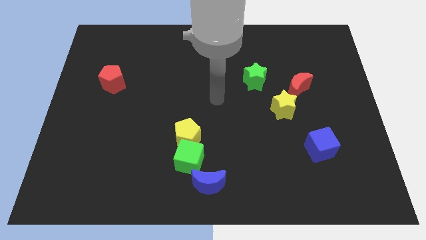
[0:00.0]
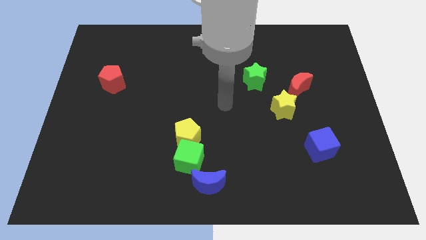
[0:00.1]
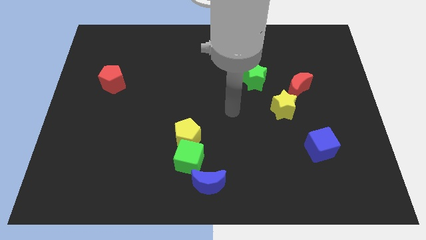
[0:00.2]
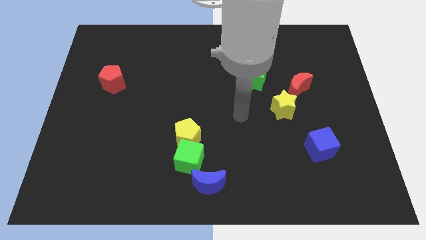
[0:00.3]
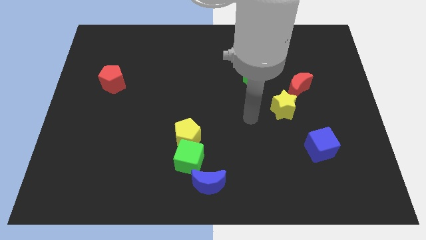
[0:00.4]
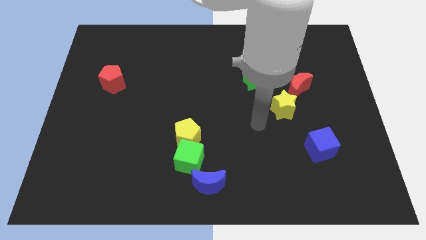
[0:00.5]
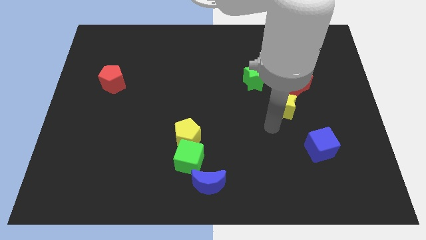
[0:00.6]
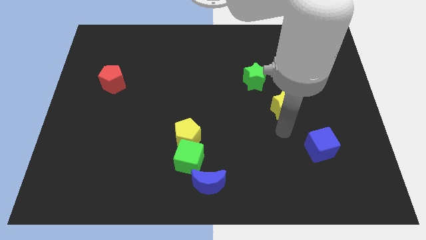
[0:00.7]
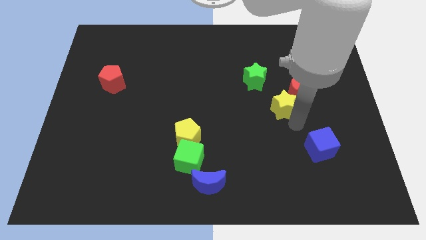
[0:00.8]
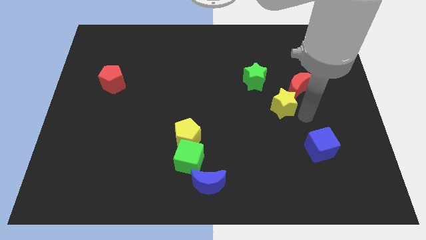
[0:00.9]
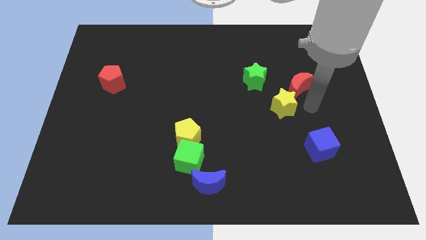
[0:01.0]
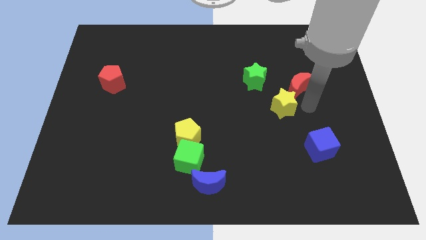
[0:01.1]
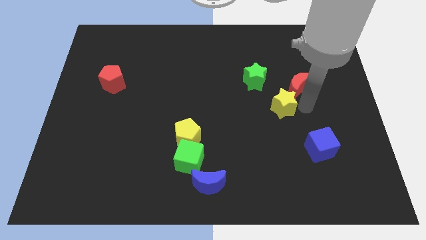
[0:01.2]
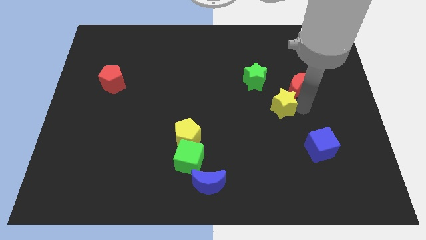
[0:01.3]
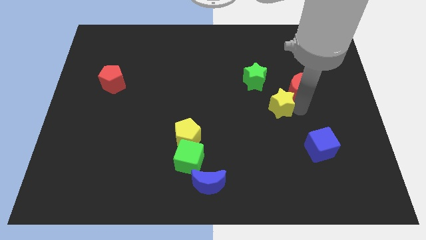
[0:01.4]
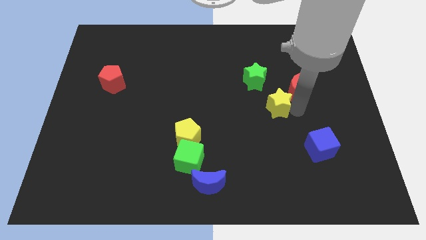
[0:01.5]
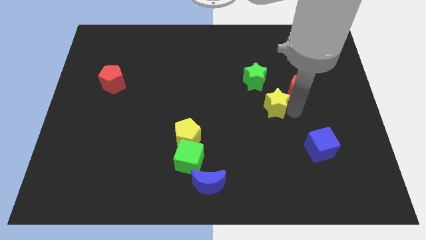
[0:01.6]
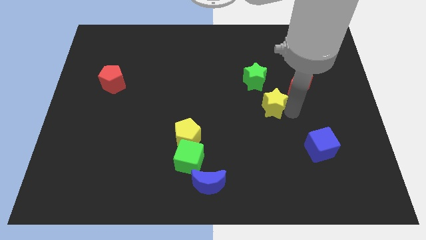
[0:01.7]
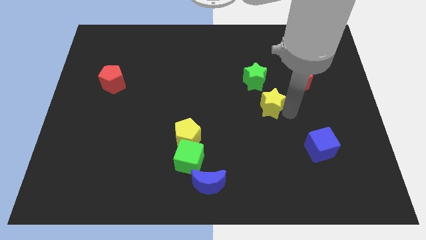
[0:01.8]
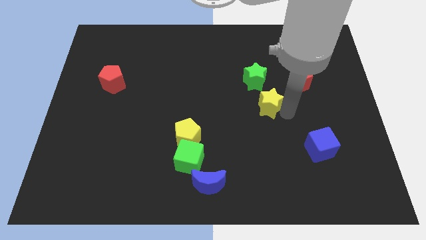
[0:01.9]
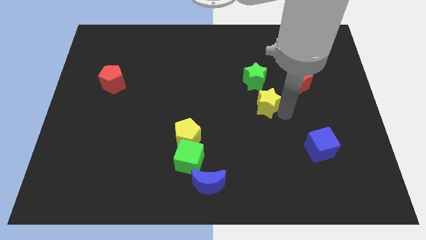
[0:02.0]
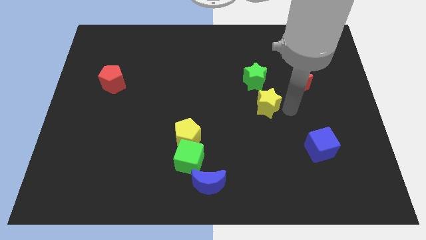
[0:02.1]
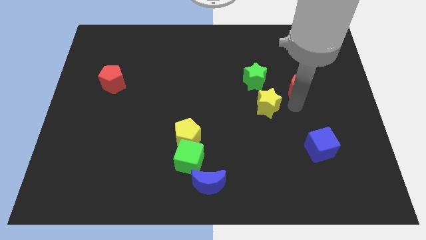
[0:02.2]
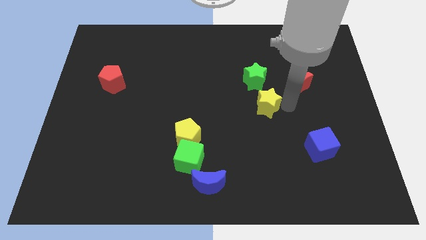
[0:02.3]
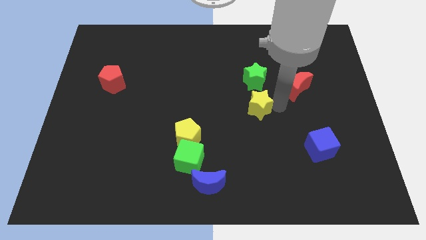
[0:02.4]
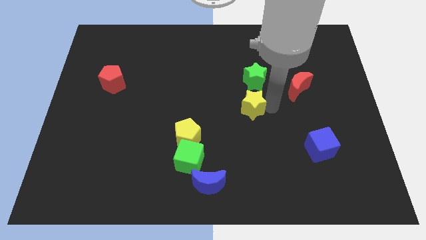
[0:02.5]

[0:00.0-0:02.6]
move the yellow star to the left a bit

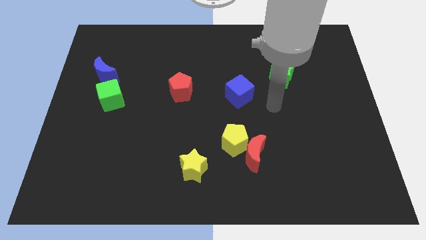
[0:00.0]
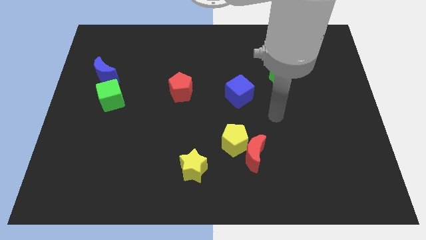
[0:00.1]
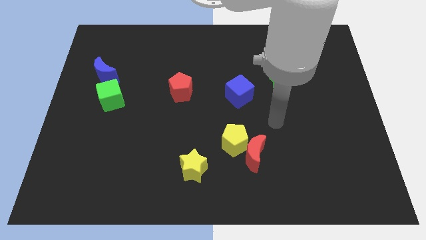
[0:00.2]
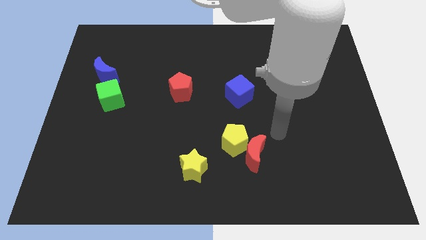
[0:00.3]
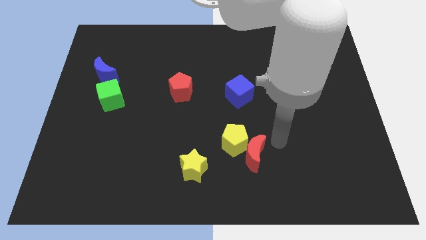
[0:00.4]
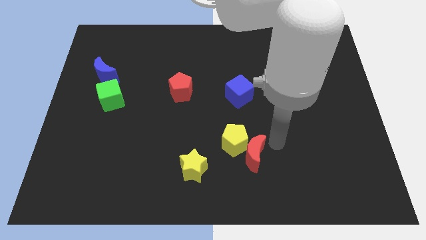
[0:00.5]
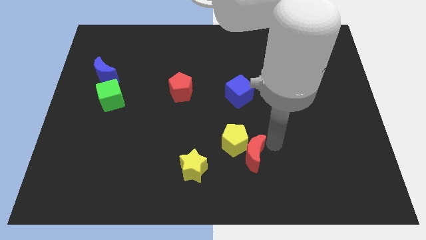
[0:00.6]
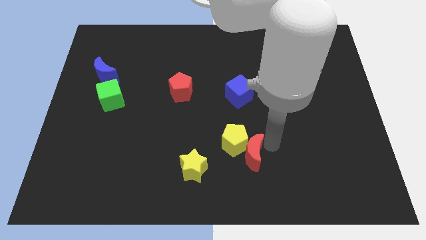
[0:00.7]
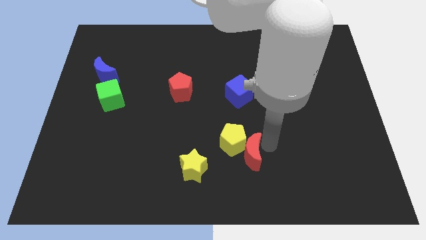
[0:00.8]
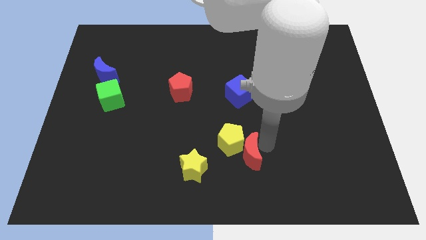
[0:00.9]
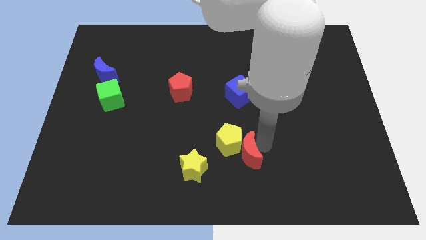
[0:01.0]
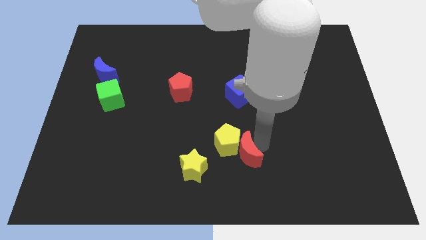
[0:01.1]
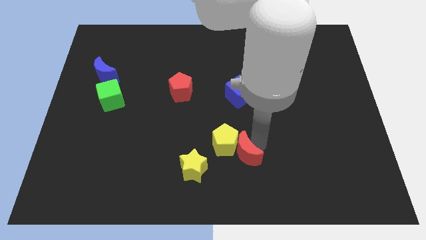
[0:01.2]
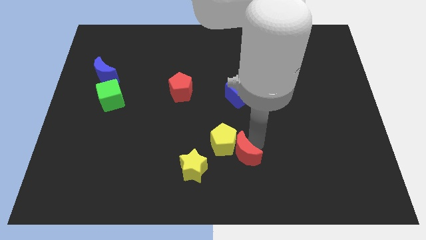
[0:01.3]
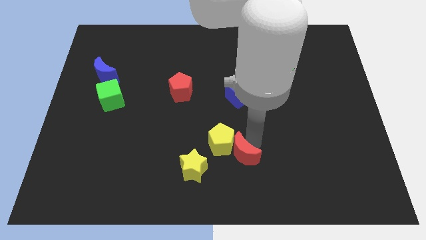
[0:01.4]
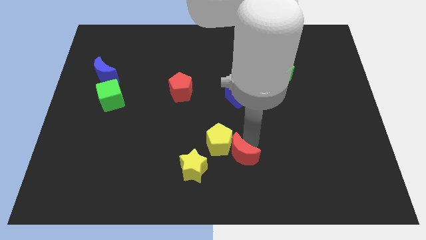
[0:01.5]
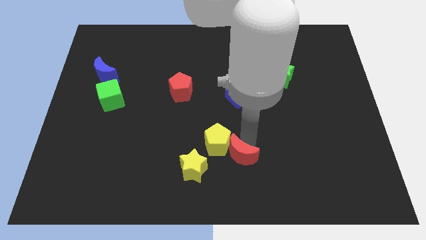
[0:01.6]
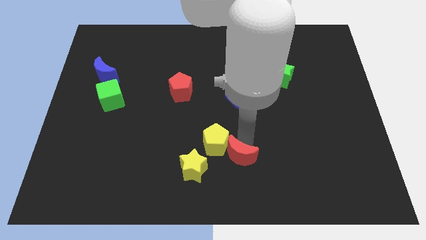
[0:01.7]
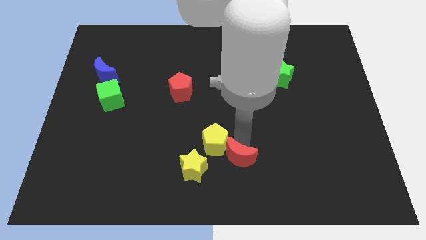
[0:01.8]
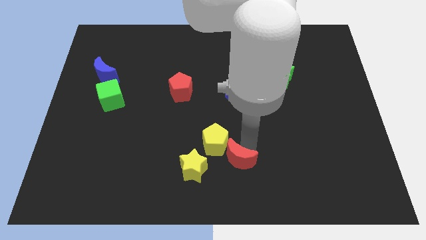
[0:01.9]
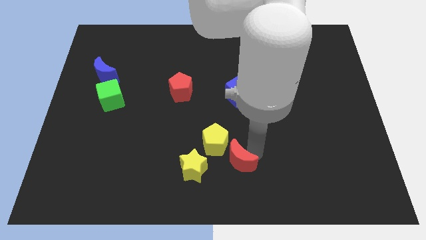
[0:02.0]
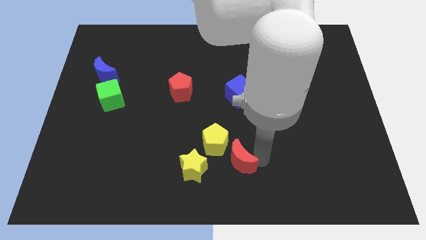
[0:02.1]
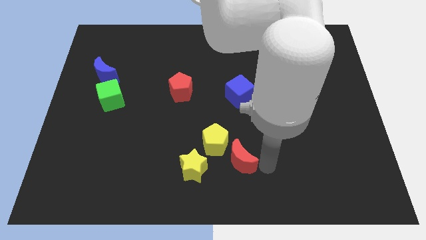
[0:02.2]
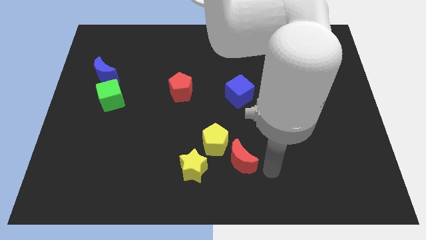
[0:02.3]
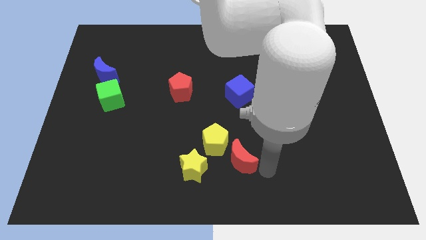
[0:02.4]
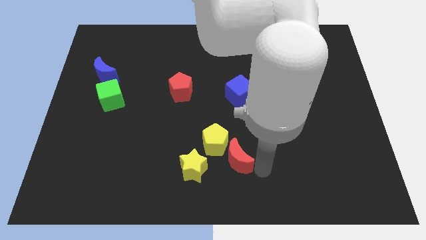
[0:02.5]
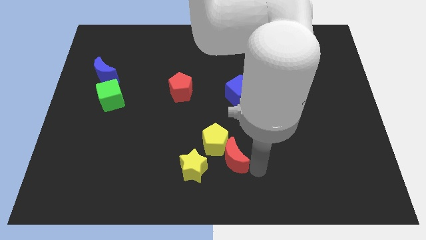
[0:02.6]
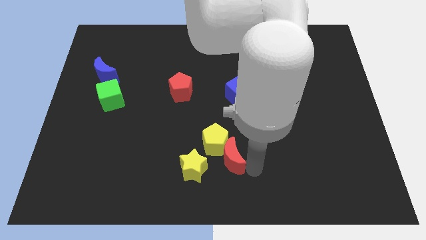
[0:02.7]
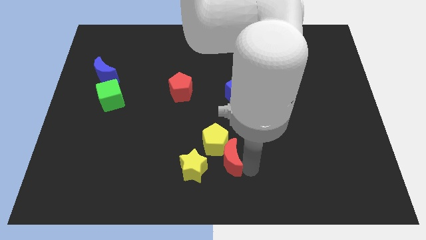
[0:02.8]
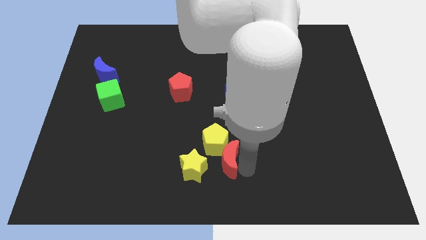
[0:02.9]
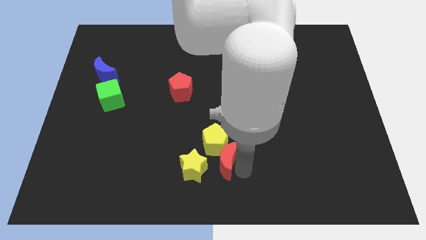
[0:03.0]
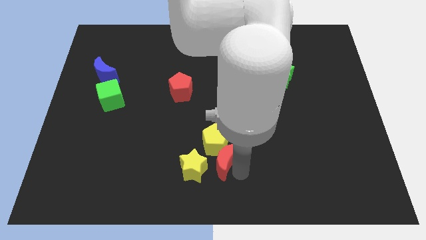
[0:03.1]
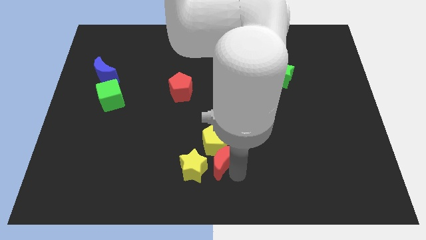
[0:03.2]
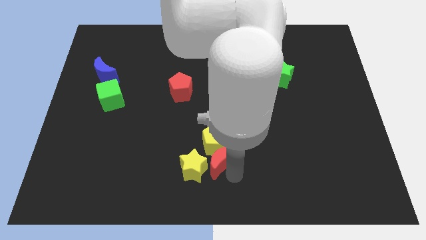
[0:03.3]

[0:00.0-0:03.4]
push the red moon to the left a little bit

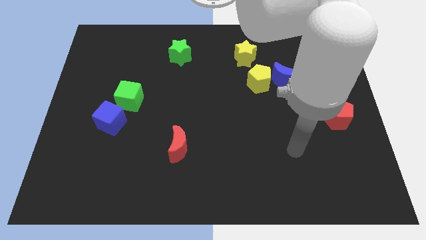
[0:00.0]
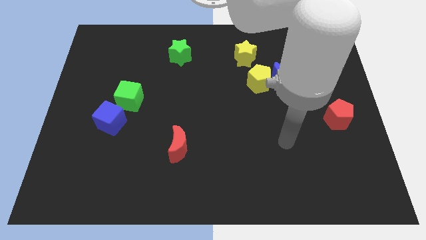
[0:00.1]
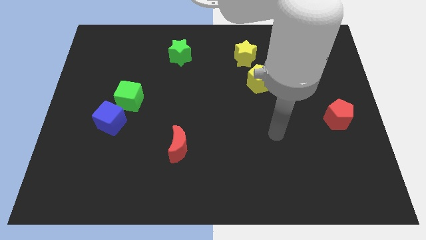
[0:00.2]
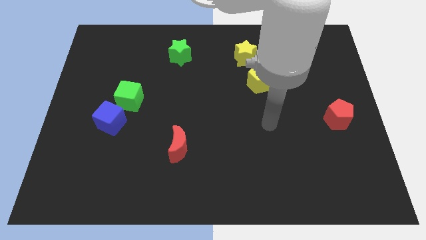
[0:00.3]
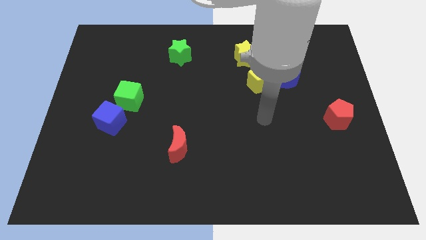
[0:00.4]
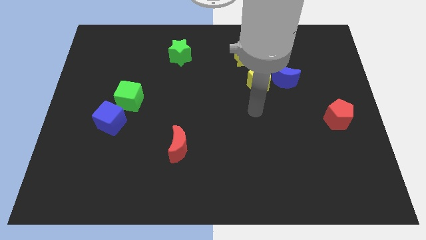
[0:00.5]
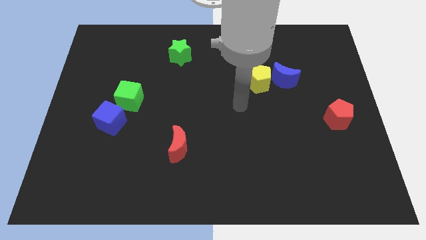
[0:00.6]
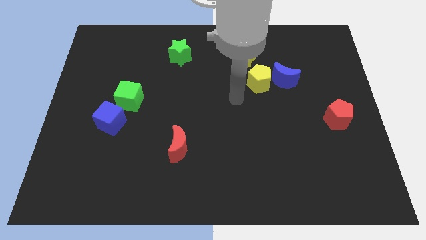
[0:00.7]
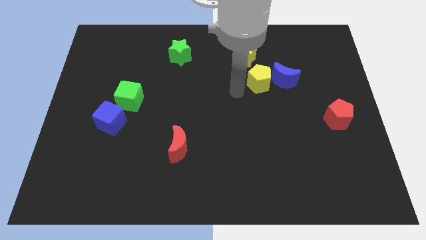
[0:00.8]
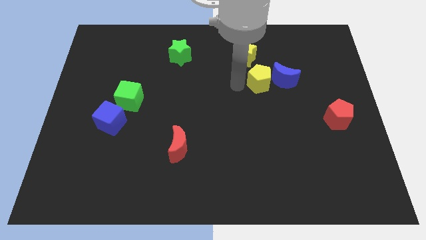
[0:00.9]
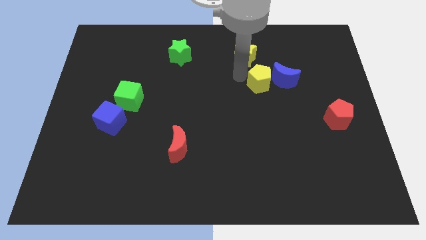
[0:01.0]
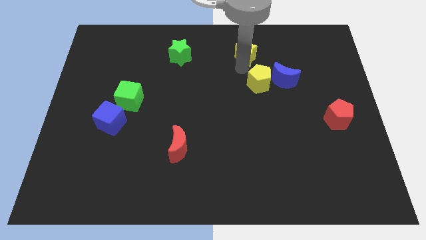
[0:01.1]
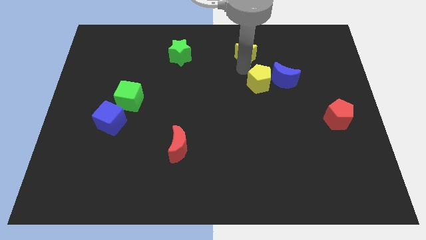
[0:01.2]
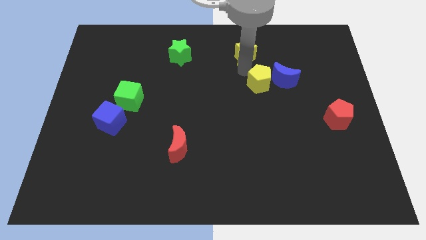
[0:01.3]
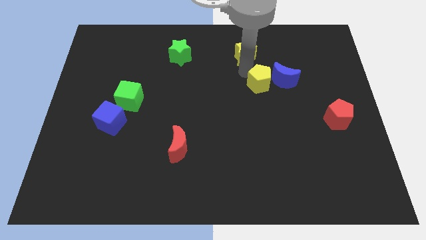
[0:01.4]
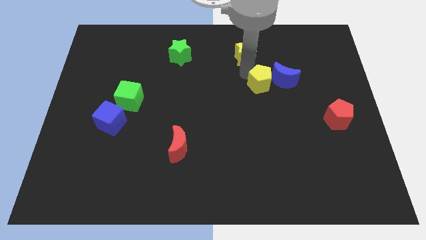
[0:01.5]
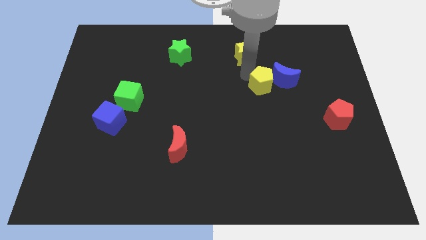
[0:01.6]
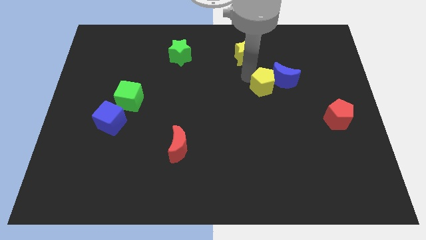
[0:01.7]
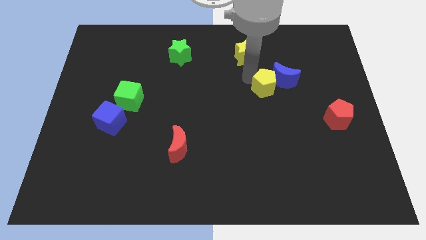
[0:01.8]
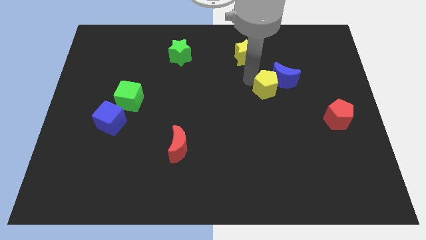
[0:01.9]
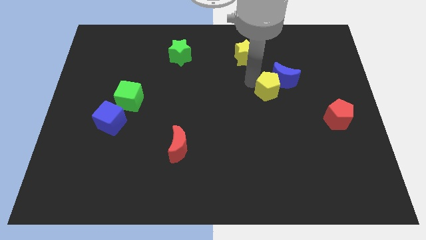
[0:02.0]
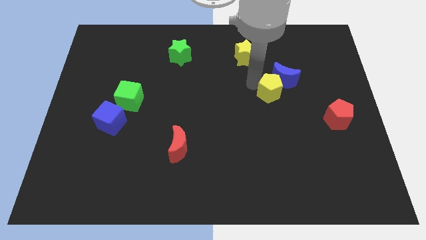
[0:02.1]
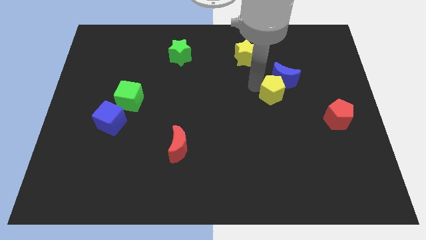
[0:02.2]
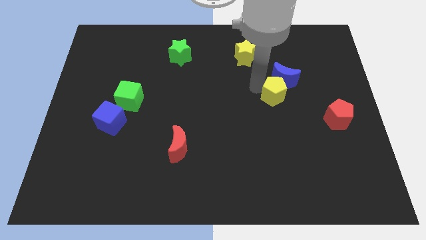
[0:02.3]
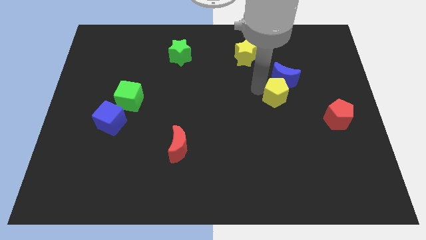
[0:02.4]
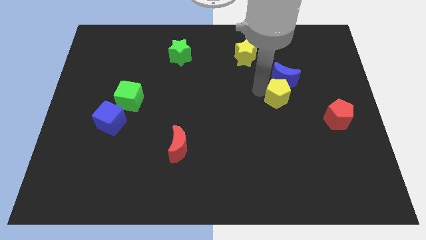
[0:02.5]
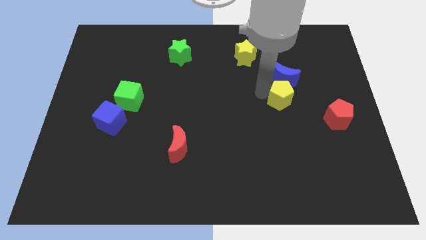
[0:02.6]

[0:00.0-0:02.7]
move the yellow pentagon slightly downwards and then to the right
